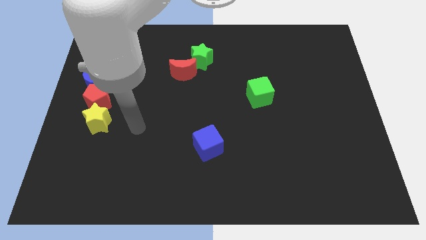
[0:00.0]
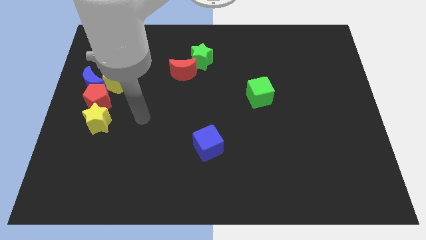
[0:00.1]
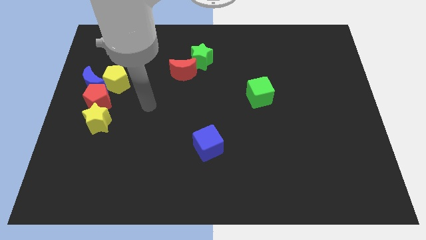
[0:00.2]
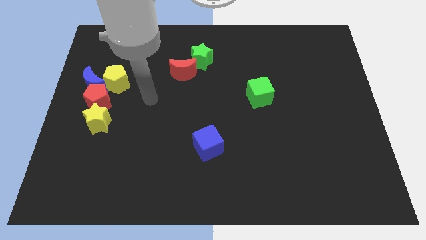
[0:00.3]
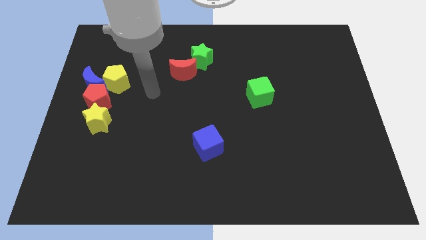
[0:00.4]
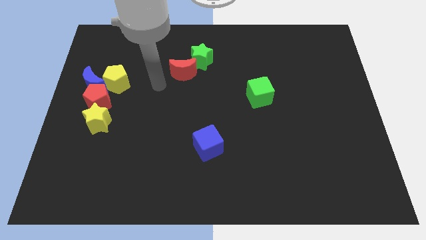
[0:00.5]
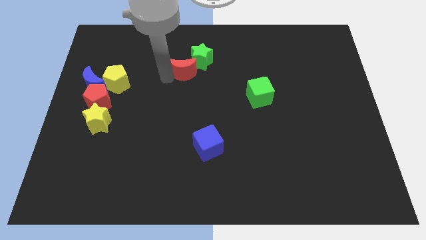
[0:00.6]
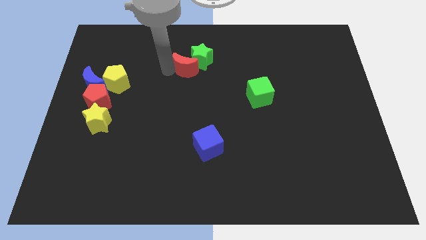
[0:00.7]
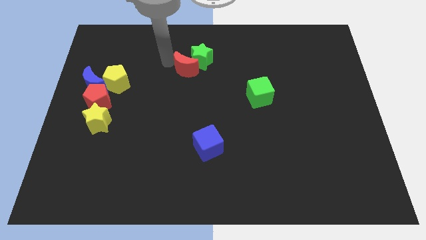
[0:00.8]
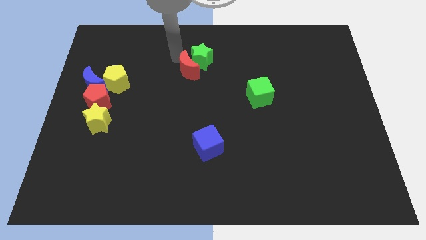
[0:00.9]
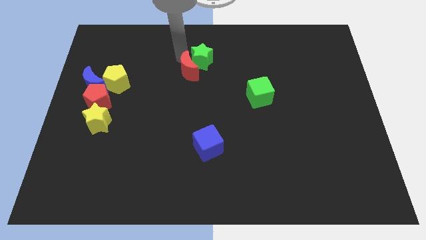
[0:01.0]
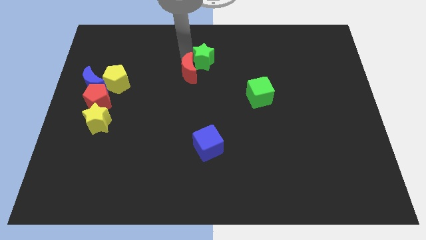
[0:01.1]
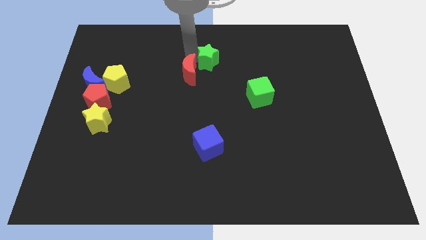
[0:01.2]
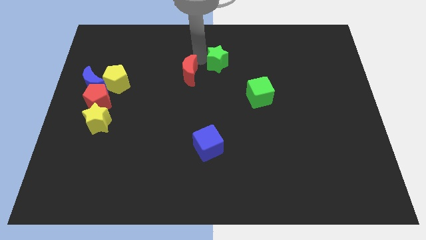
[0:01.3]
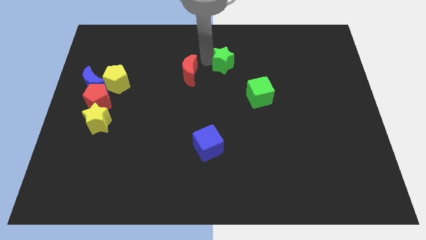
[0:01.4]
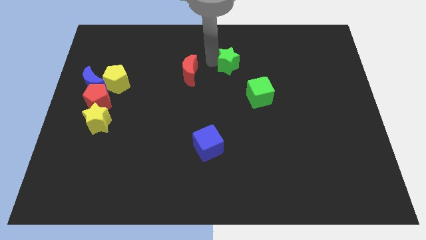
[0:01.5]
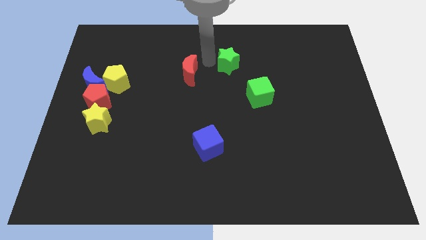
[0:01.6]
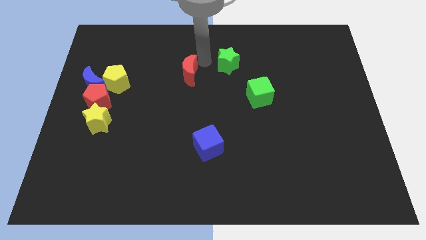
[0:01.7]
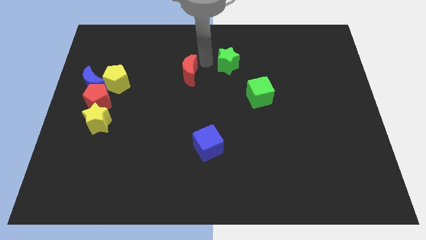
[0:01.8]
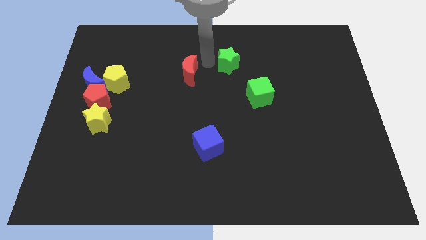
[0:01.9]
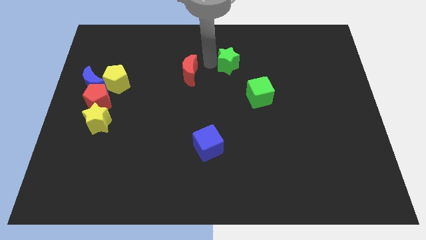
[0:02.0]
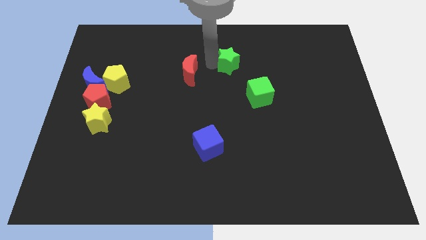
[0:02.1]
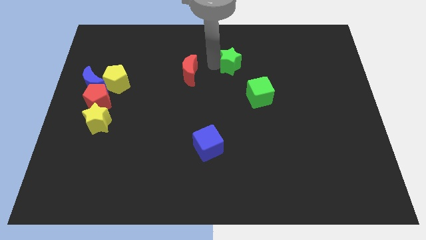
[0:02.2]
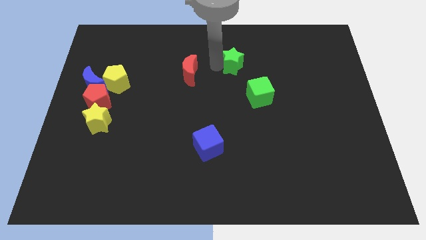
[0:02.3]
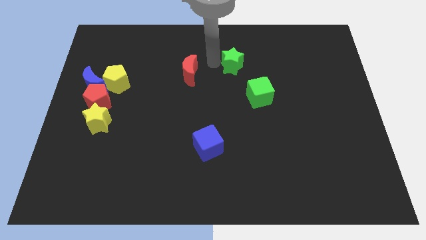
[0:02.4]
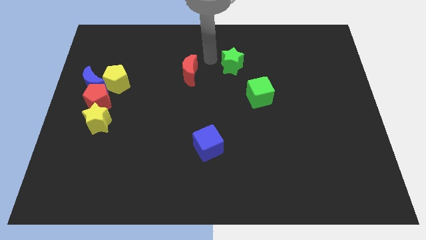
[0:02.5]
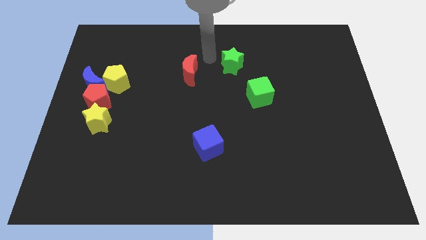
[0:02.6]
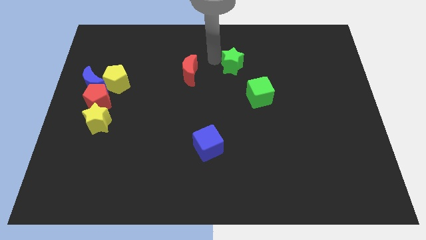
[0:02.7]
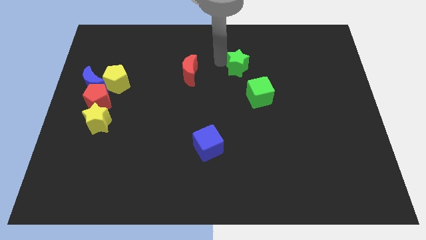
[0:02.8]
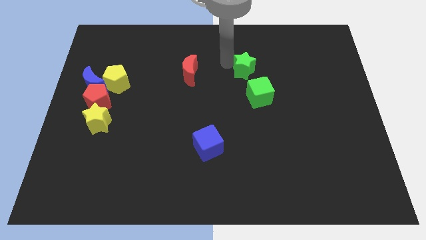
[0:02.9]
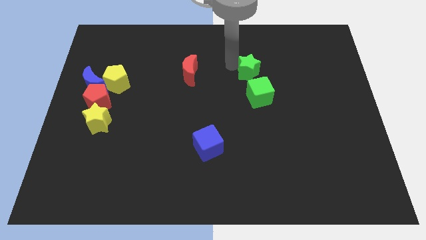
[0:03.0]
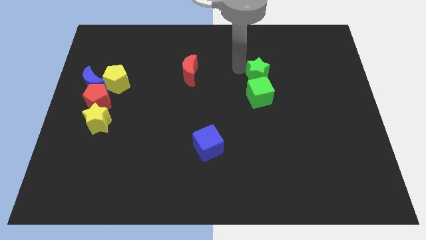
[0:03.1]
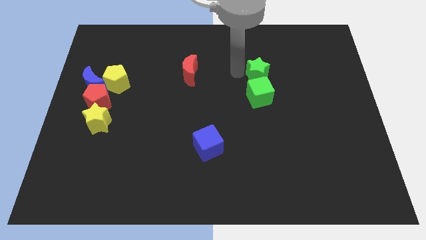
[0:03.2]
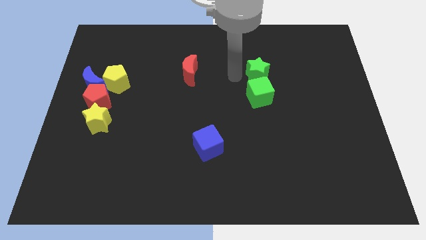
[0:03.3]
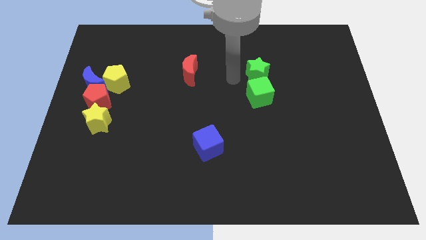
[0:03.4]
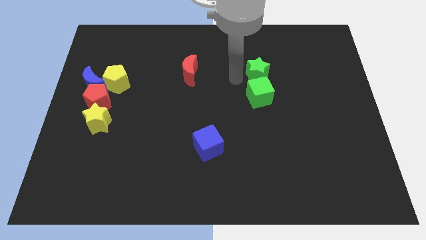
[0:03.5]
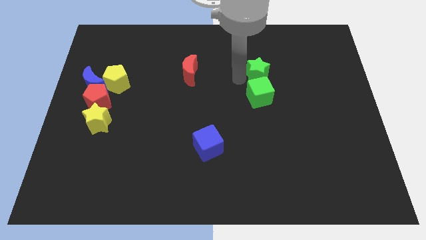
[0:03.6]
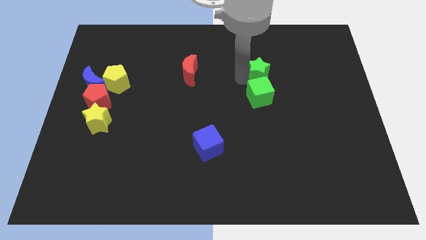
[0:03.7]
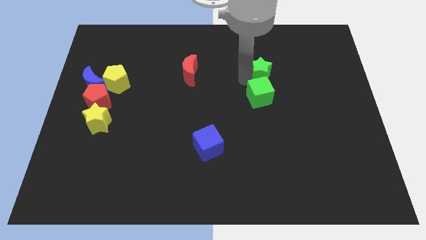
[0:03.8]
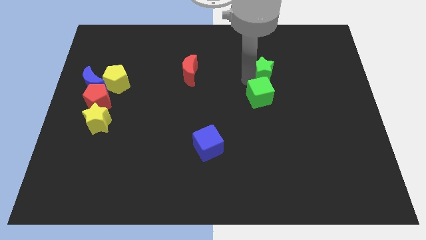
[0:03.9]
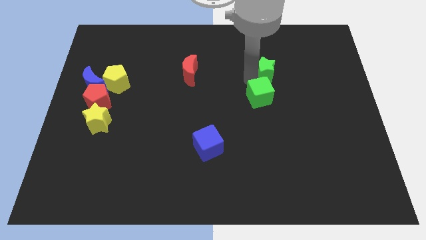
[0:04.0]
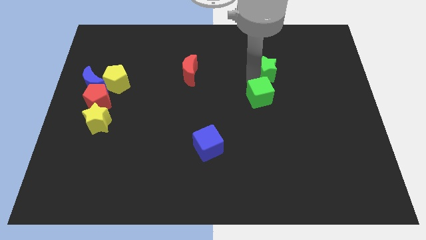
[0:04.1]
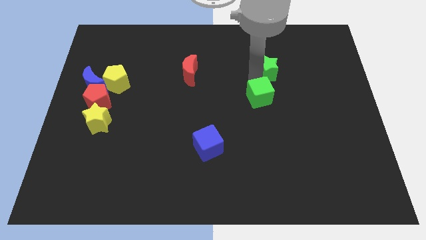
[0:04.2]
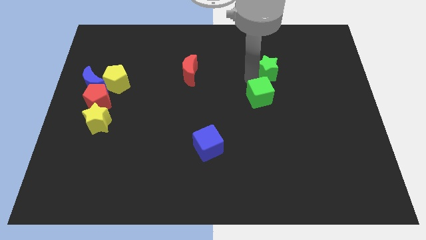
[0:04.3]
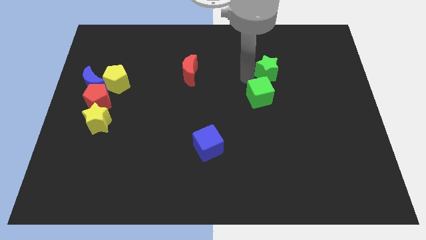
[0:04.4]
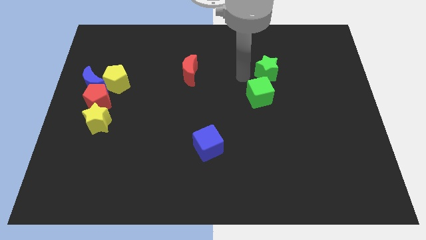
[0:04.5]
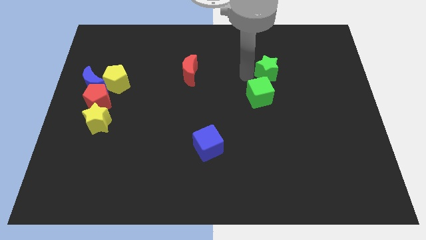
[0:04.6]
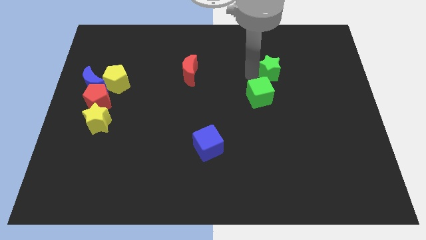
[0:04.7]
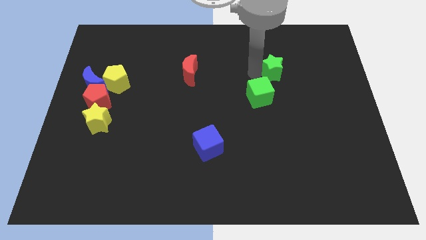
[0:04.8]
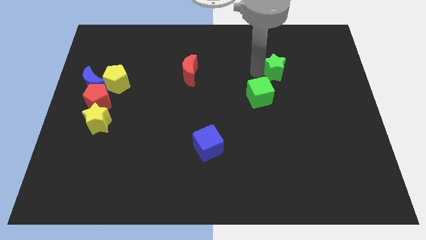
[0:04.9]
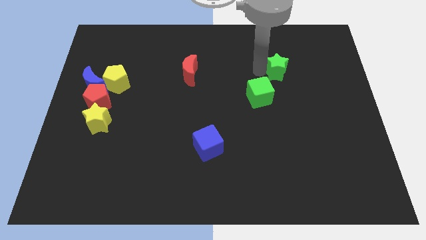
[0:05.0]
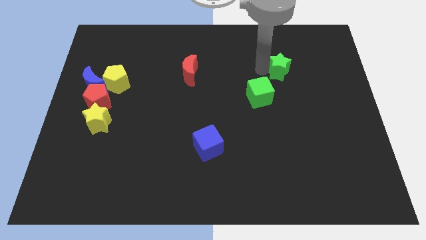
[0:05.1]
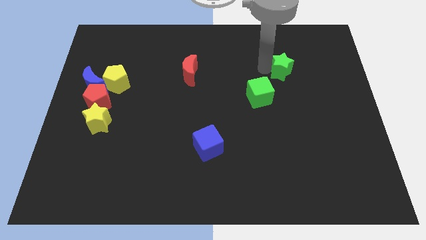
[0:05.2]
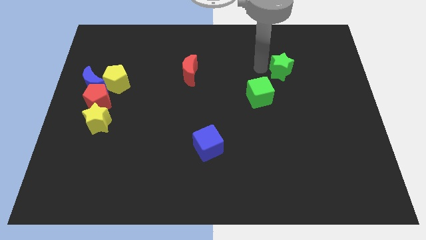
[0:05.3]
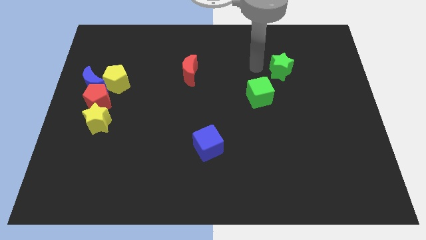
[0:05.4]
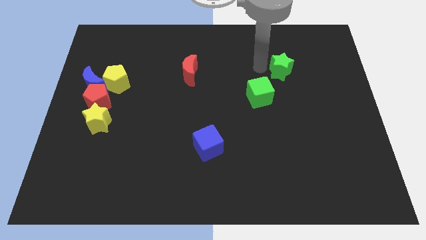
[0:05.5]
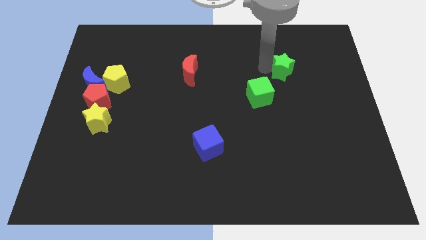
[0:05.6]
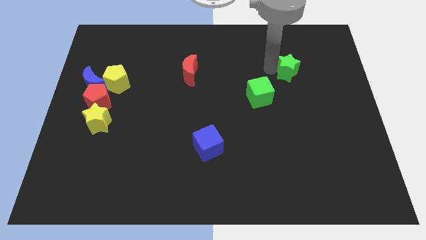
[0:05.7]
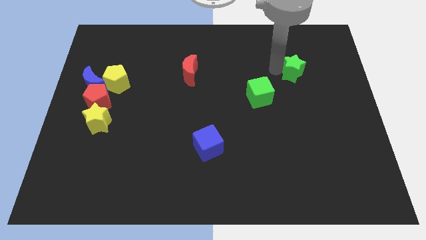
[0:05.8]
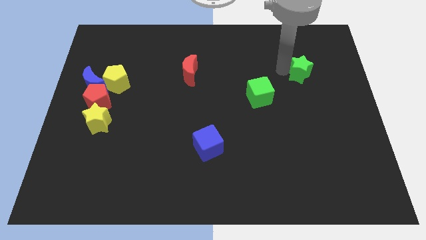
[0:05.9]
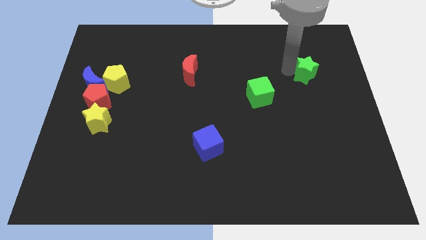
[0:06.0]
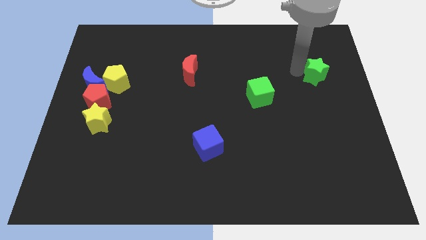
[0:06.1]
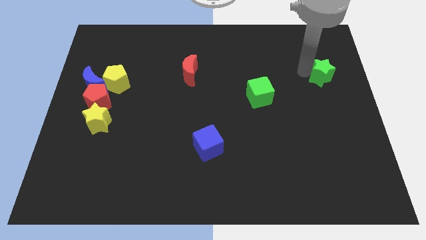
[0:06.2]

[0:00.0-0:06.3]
slide the green star to the right side of the board

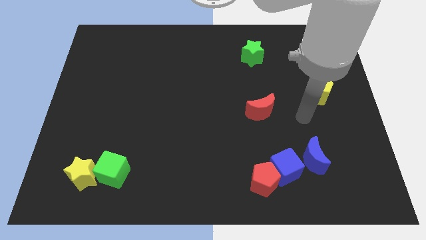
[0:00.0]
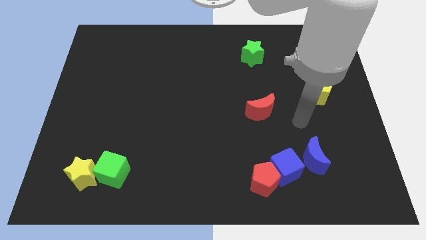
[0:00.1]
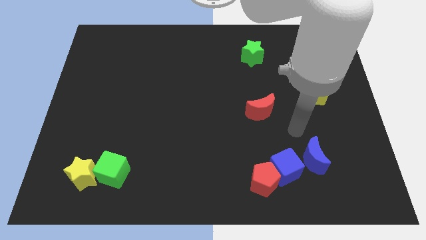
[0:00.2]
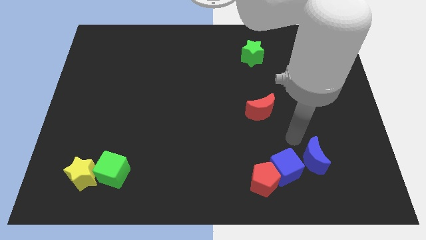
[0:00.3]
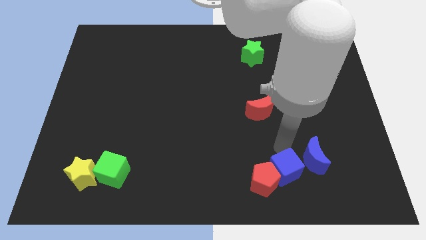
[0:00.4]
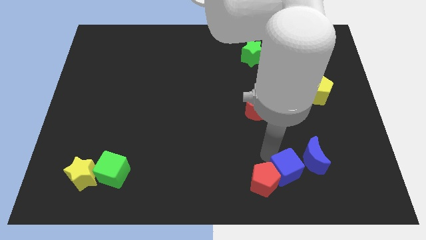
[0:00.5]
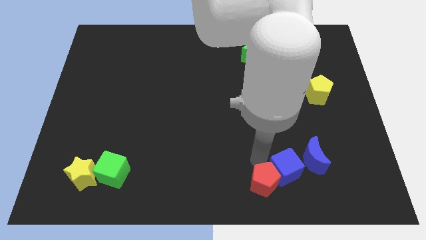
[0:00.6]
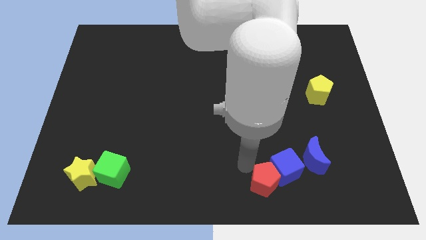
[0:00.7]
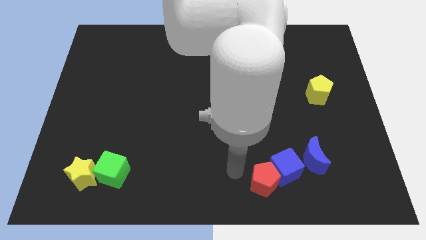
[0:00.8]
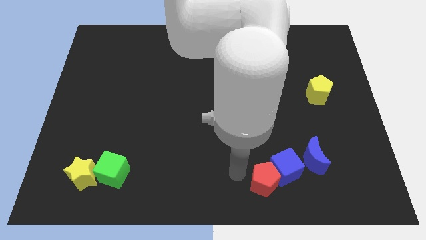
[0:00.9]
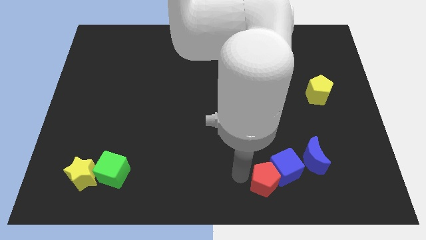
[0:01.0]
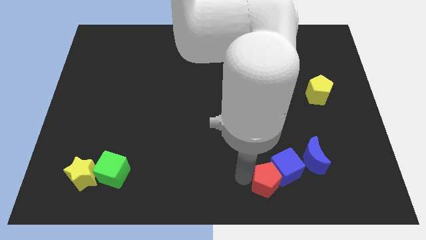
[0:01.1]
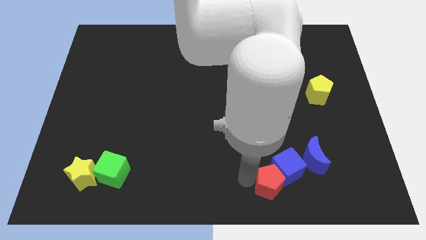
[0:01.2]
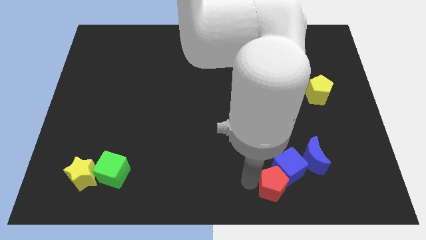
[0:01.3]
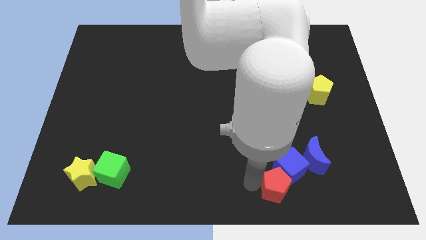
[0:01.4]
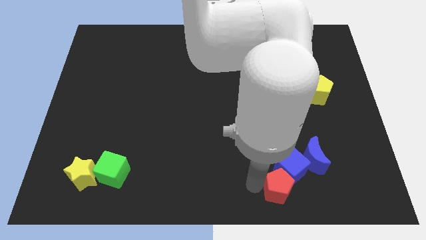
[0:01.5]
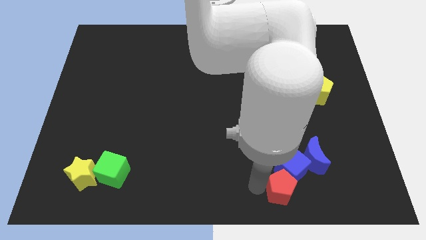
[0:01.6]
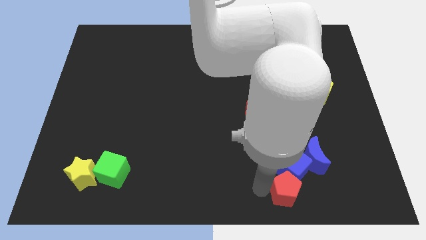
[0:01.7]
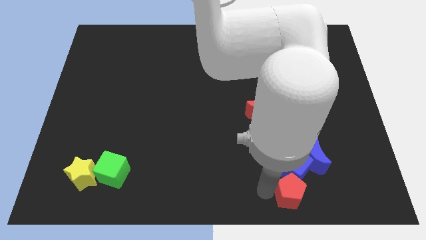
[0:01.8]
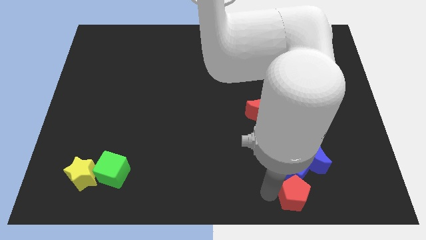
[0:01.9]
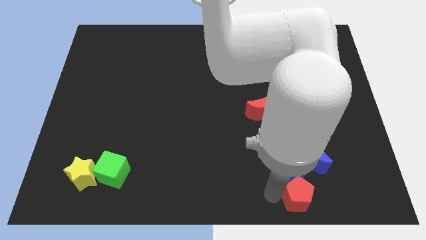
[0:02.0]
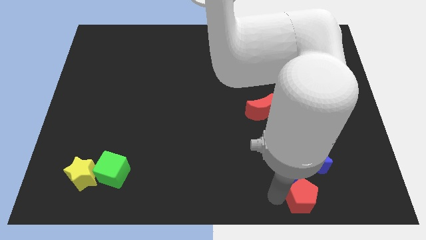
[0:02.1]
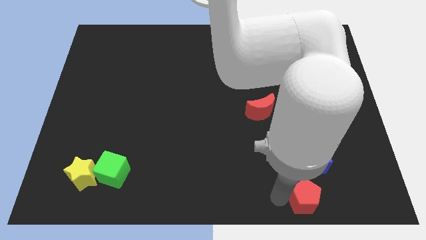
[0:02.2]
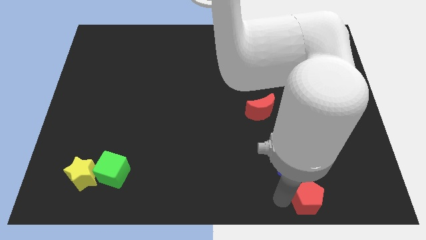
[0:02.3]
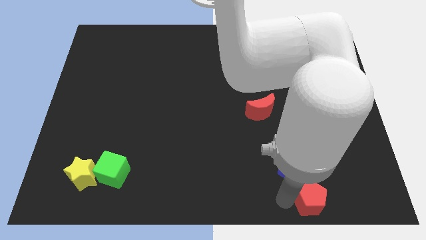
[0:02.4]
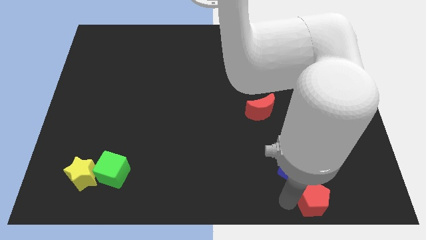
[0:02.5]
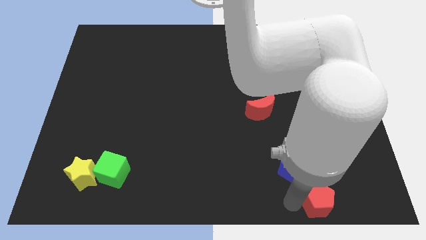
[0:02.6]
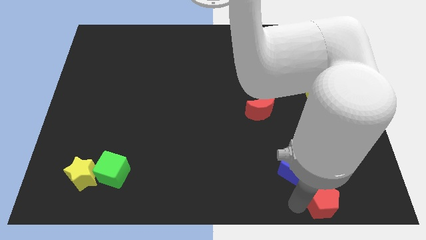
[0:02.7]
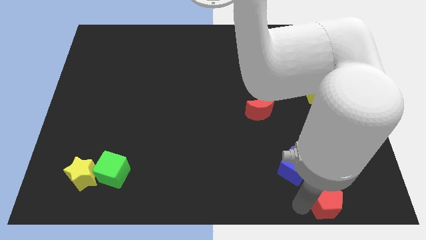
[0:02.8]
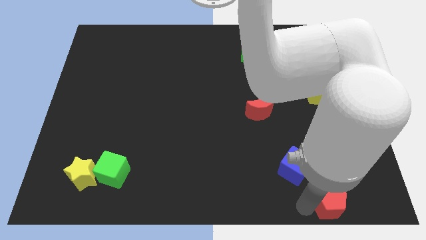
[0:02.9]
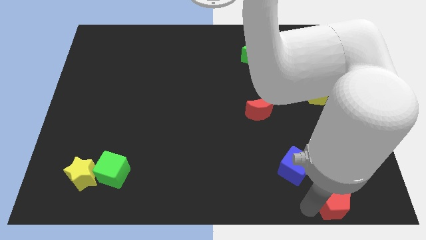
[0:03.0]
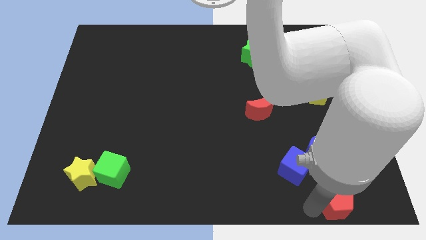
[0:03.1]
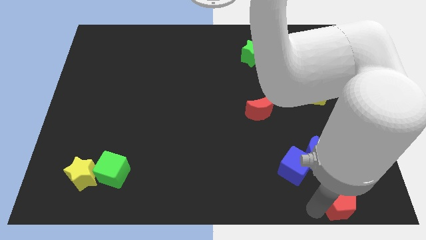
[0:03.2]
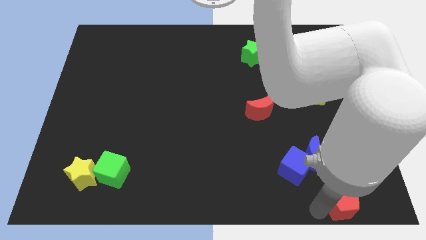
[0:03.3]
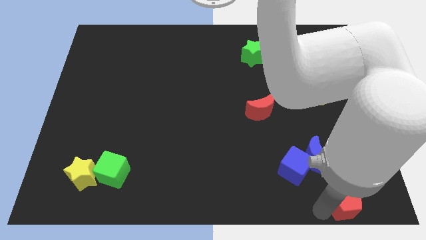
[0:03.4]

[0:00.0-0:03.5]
put the red pentagon to the lower right corner
